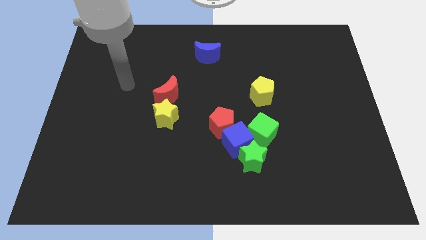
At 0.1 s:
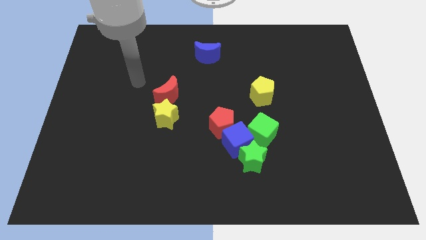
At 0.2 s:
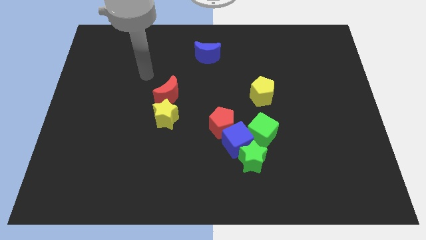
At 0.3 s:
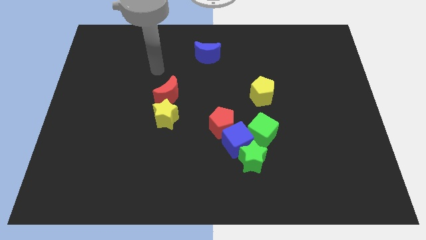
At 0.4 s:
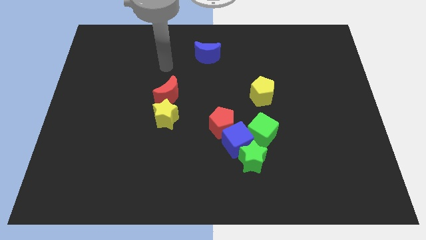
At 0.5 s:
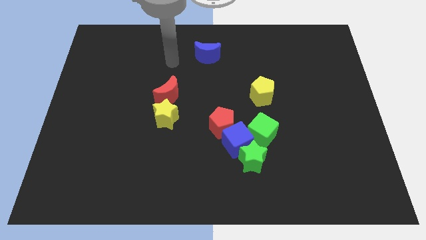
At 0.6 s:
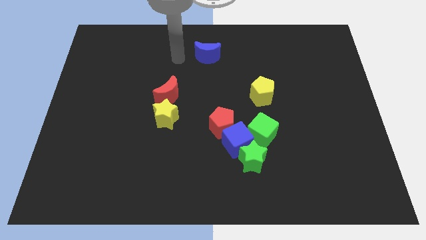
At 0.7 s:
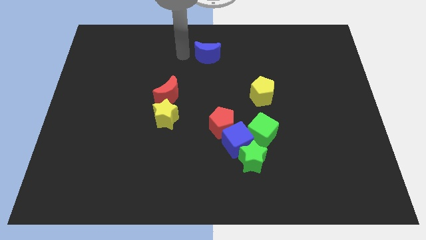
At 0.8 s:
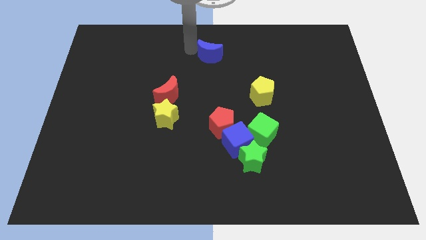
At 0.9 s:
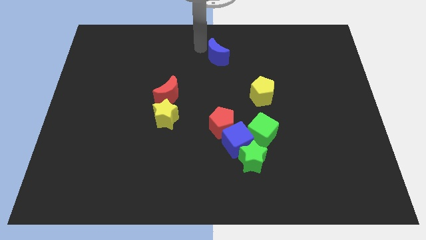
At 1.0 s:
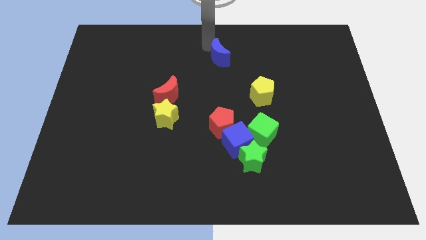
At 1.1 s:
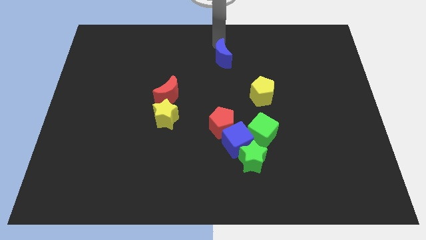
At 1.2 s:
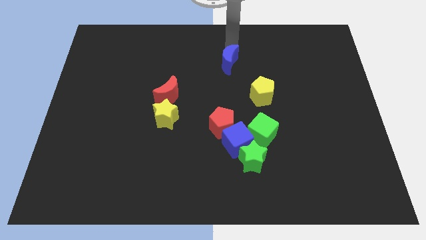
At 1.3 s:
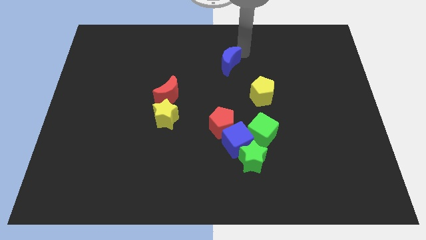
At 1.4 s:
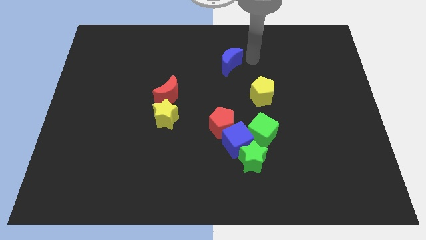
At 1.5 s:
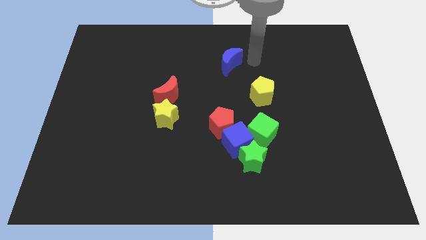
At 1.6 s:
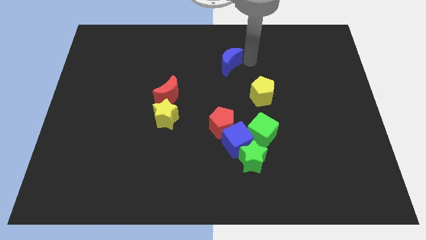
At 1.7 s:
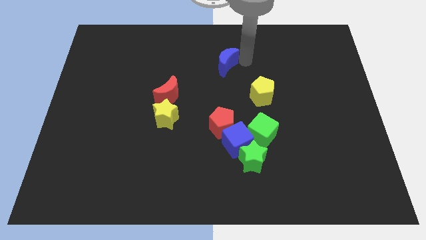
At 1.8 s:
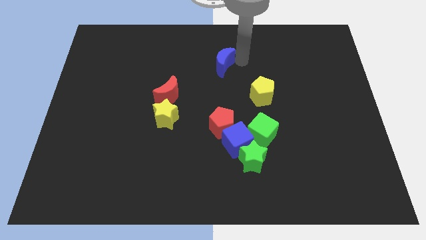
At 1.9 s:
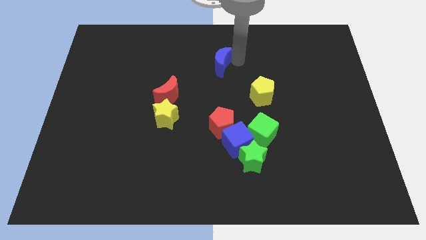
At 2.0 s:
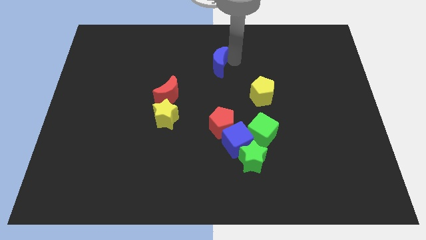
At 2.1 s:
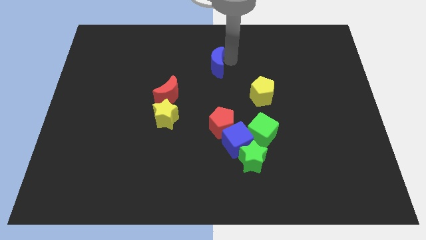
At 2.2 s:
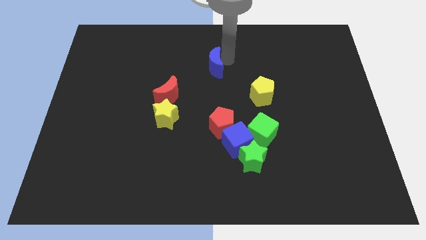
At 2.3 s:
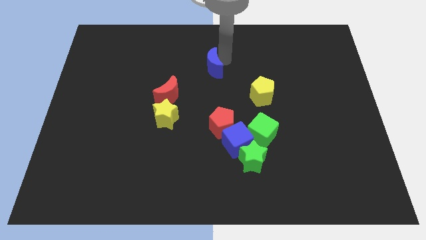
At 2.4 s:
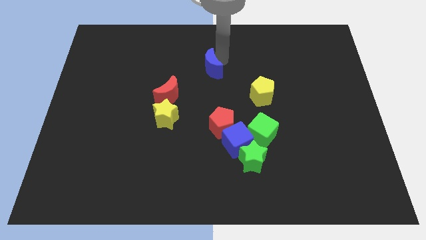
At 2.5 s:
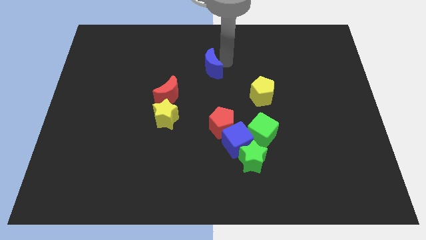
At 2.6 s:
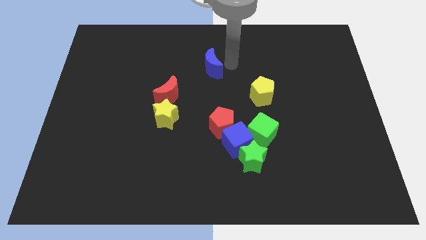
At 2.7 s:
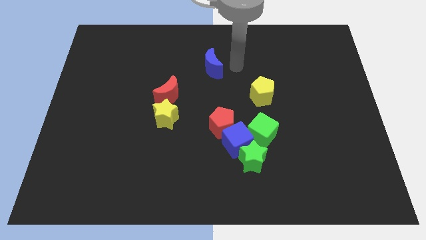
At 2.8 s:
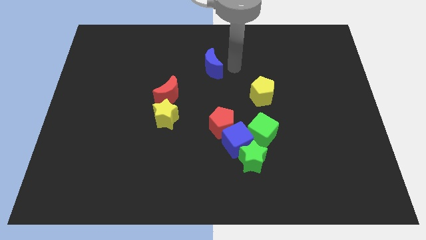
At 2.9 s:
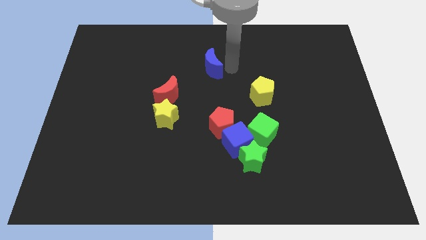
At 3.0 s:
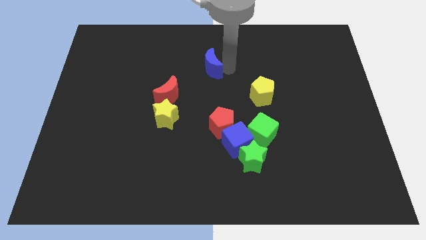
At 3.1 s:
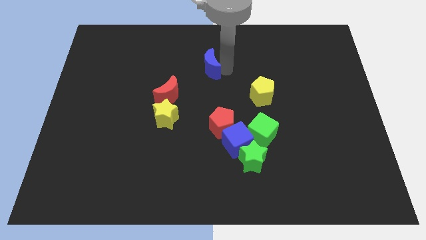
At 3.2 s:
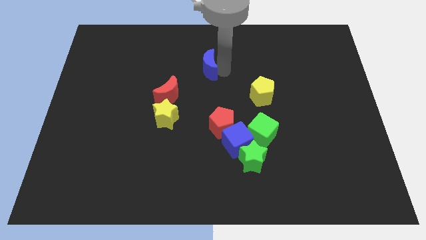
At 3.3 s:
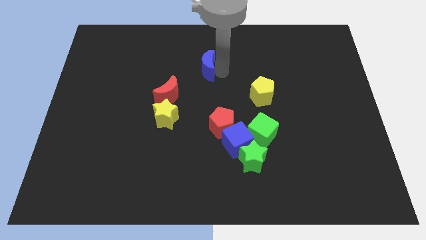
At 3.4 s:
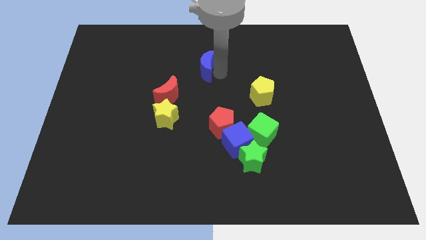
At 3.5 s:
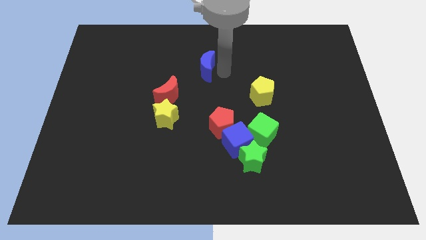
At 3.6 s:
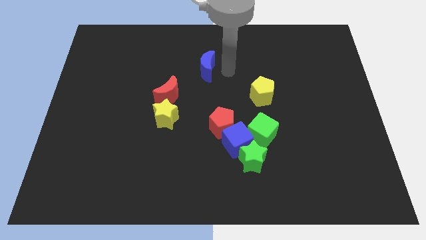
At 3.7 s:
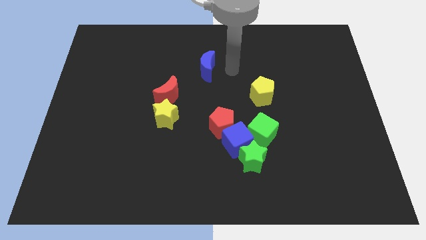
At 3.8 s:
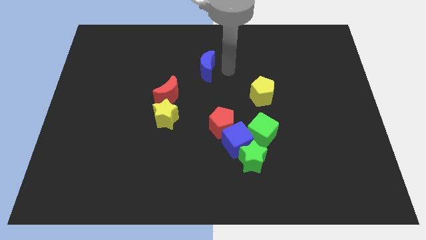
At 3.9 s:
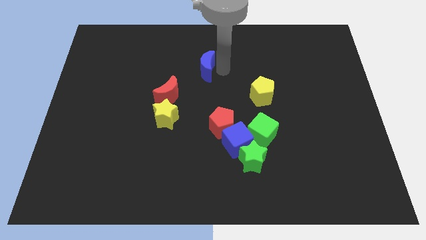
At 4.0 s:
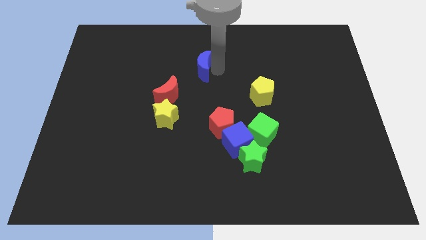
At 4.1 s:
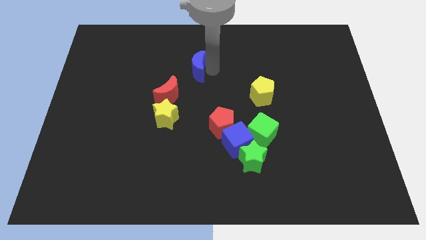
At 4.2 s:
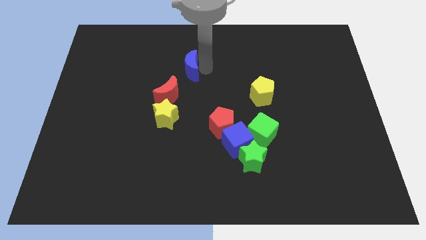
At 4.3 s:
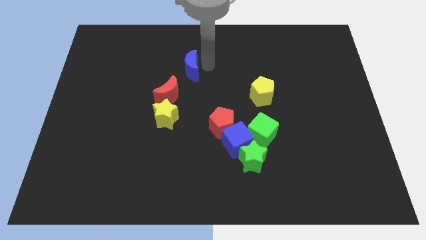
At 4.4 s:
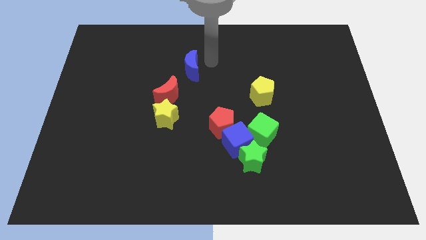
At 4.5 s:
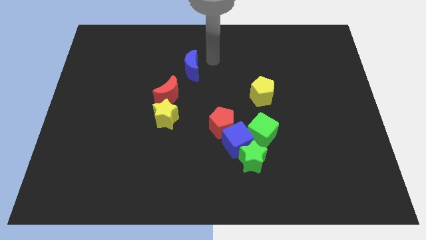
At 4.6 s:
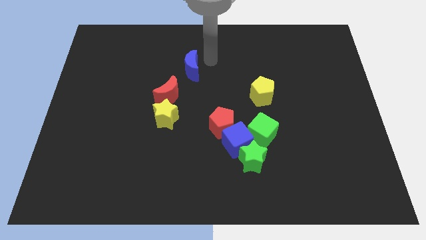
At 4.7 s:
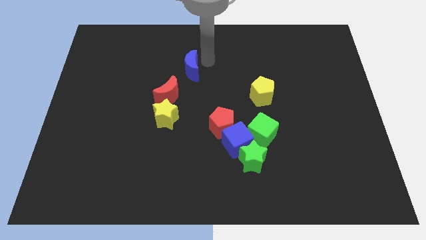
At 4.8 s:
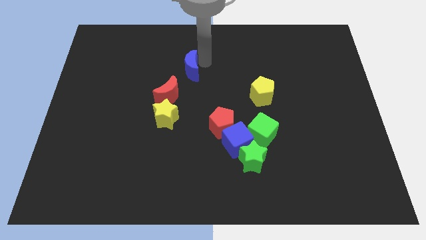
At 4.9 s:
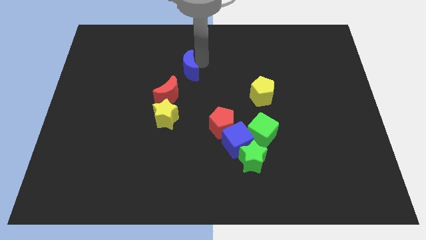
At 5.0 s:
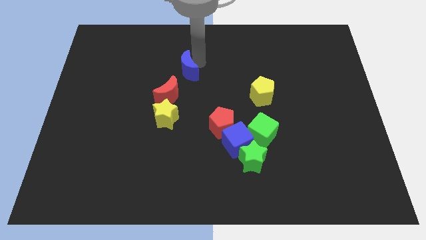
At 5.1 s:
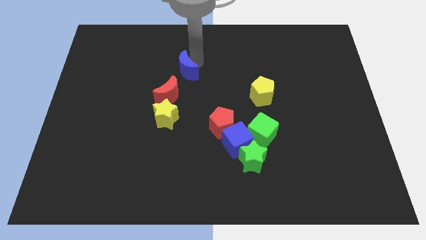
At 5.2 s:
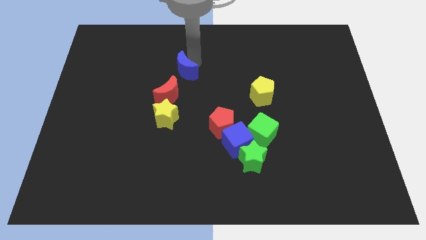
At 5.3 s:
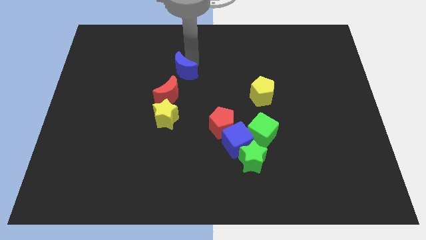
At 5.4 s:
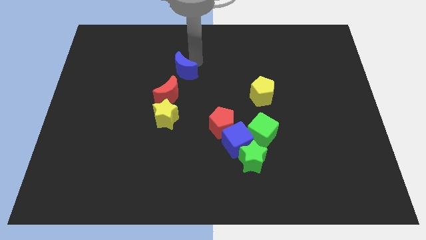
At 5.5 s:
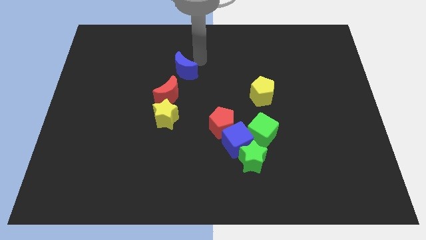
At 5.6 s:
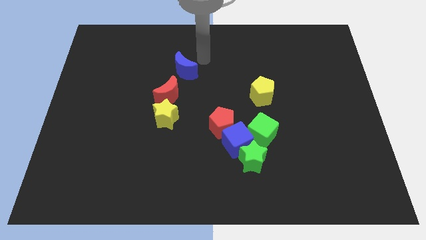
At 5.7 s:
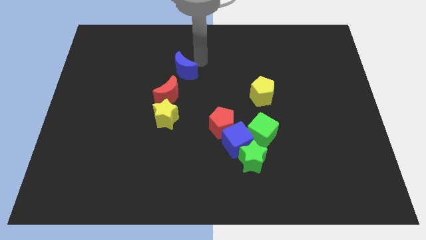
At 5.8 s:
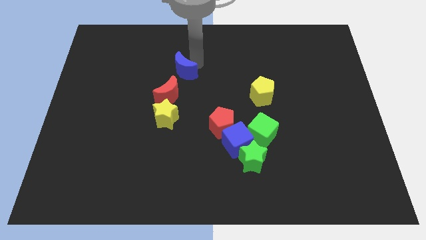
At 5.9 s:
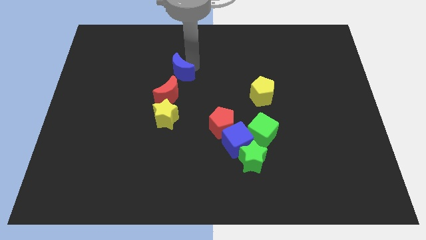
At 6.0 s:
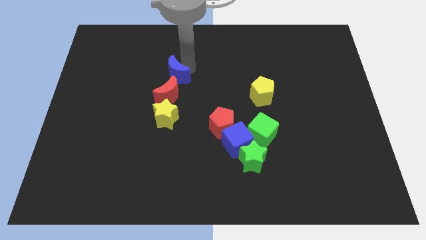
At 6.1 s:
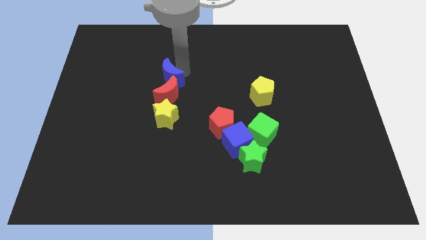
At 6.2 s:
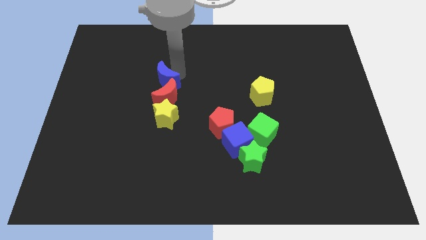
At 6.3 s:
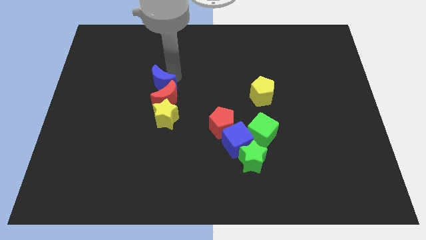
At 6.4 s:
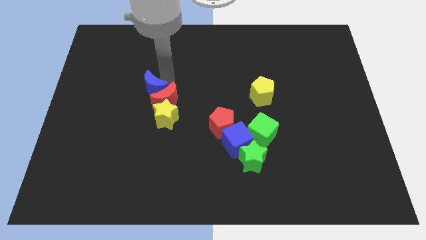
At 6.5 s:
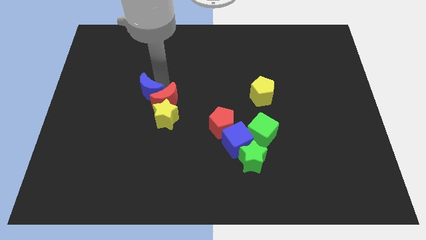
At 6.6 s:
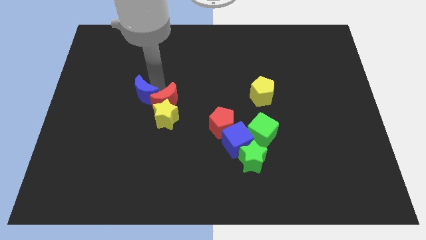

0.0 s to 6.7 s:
slide the blue moon downwards and then to the left

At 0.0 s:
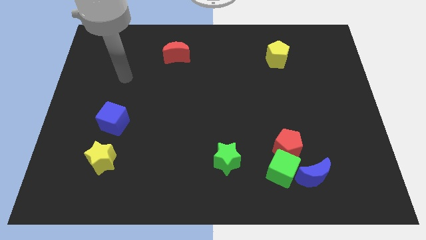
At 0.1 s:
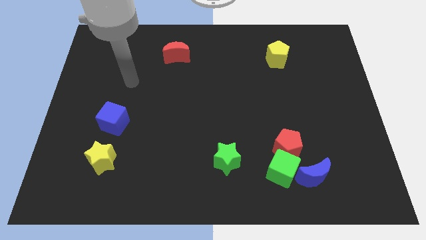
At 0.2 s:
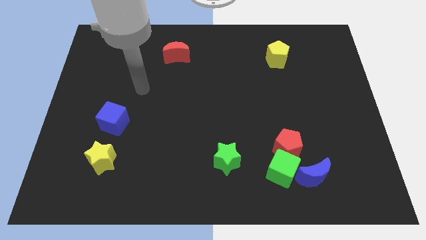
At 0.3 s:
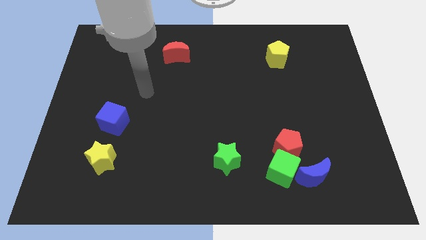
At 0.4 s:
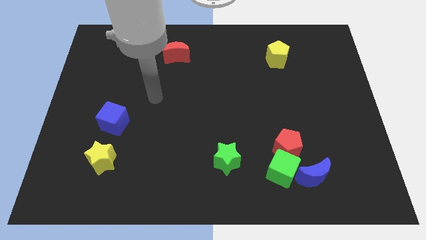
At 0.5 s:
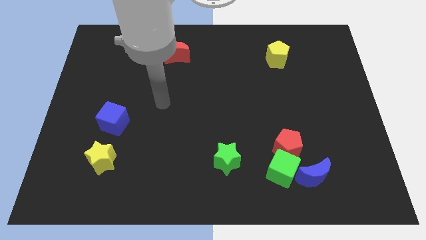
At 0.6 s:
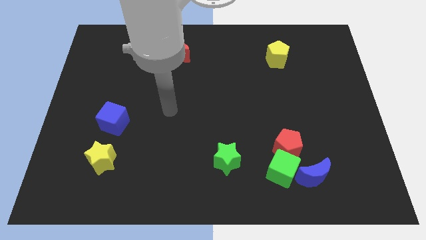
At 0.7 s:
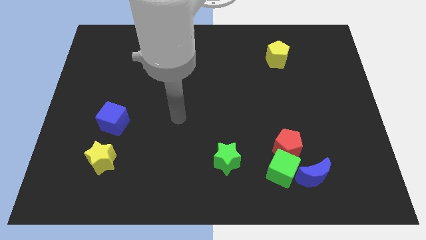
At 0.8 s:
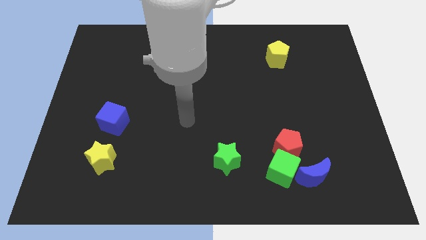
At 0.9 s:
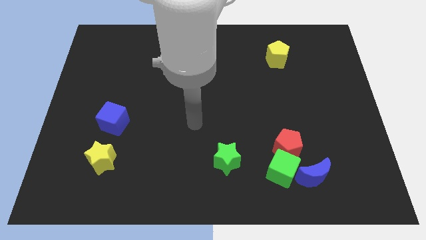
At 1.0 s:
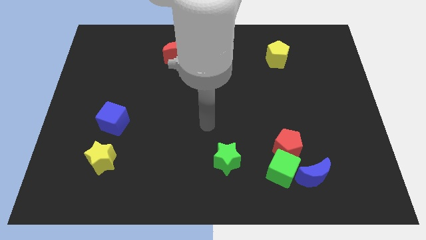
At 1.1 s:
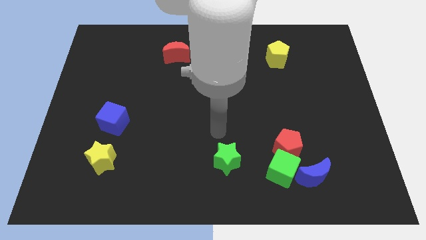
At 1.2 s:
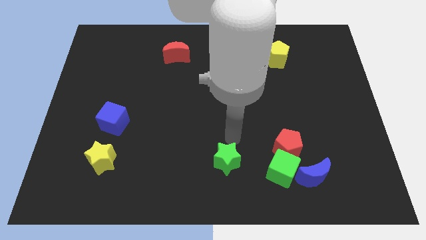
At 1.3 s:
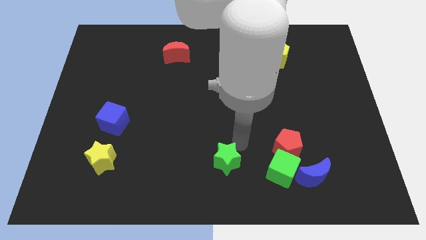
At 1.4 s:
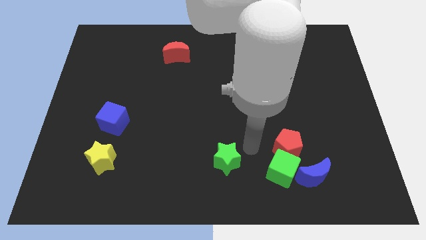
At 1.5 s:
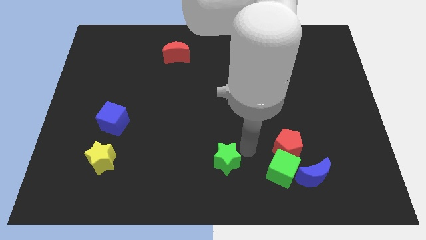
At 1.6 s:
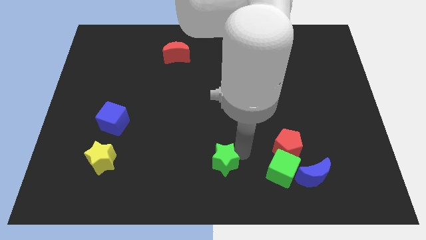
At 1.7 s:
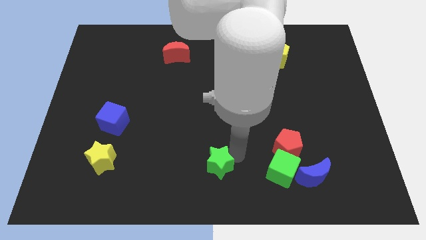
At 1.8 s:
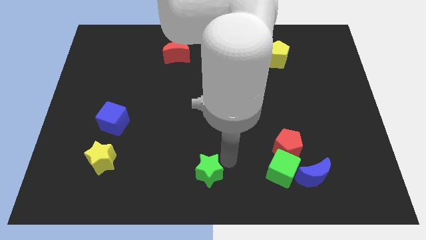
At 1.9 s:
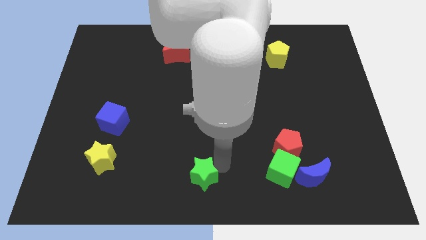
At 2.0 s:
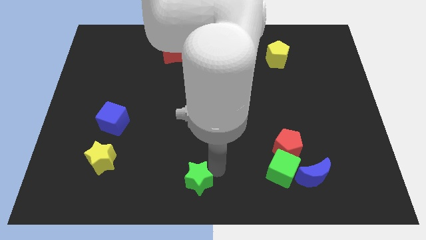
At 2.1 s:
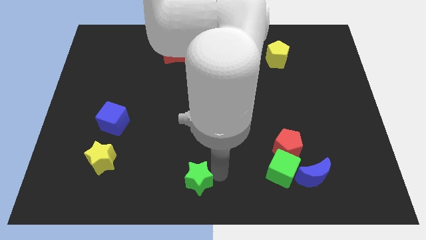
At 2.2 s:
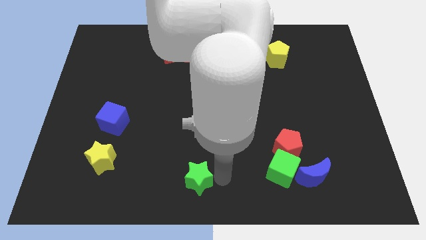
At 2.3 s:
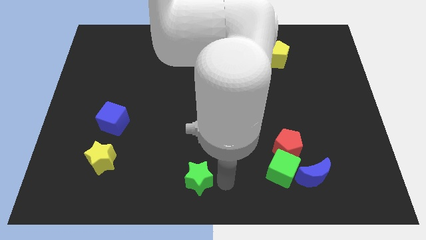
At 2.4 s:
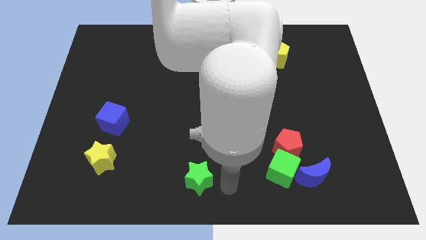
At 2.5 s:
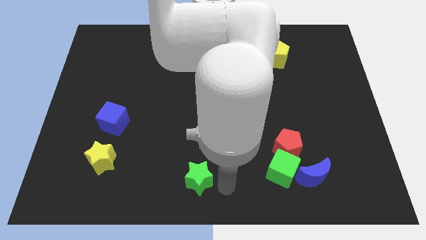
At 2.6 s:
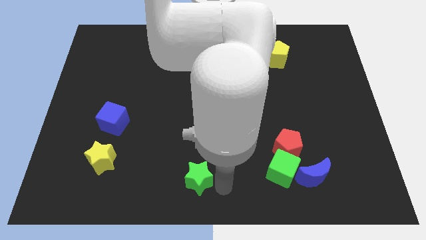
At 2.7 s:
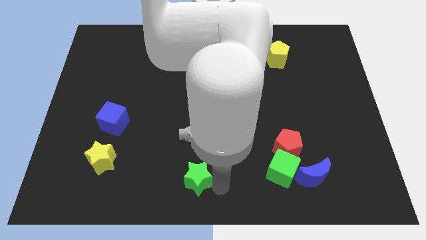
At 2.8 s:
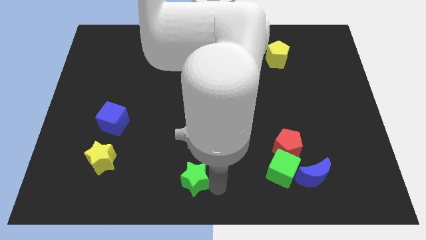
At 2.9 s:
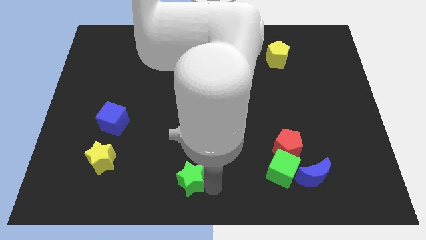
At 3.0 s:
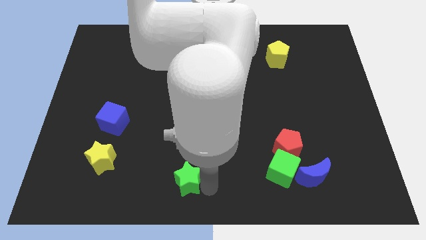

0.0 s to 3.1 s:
slide the green star left somewhat
